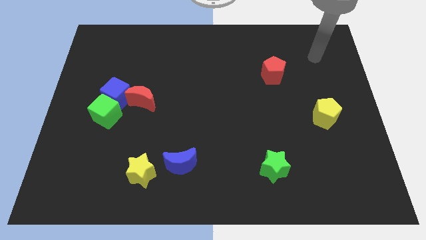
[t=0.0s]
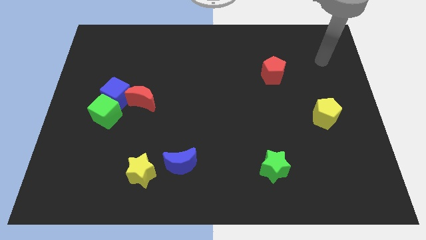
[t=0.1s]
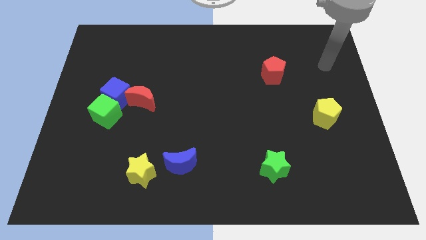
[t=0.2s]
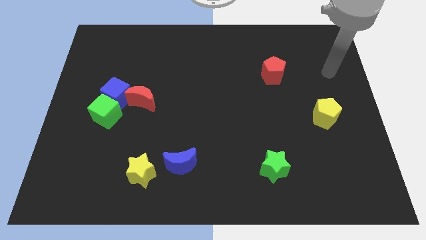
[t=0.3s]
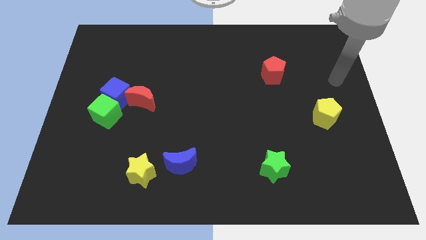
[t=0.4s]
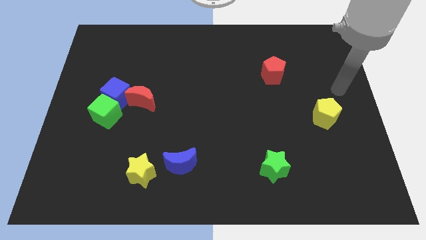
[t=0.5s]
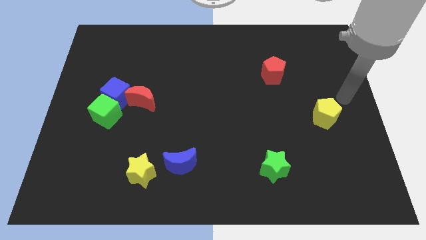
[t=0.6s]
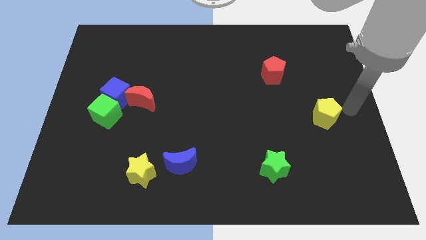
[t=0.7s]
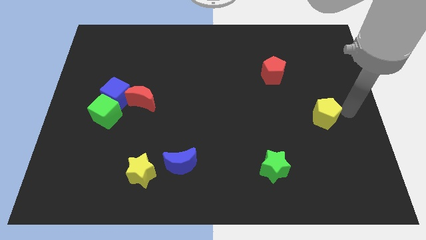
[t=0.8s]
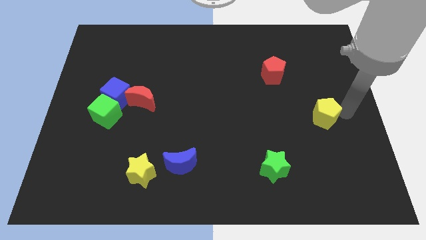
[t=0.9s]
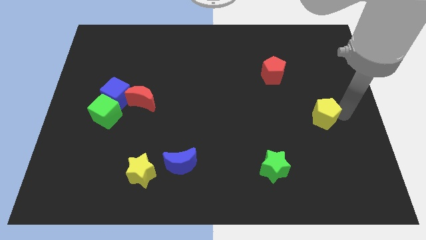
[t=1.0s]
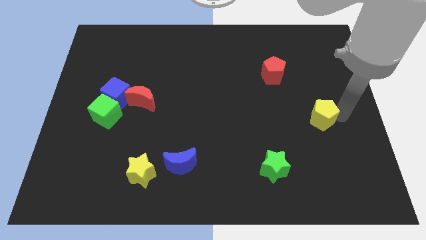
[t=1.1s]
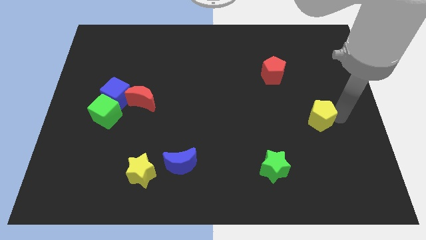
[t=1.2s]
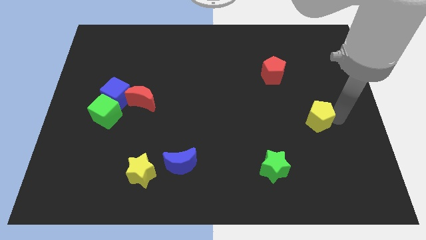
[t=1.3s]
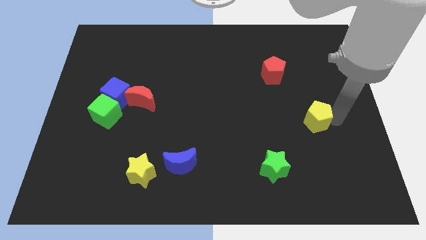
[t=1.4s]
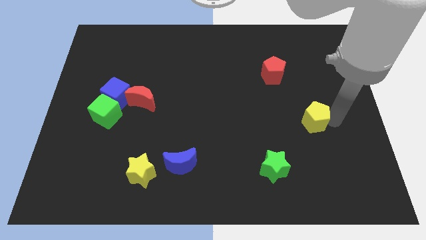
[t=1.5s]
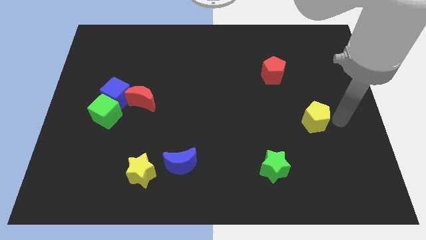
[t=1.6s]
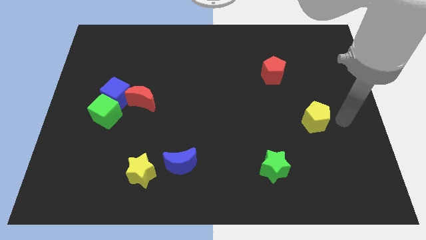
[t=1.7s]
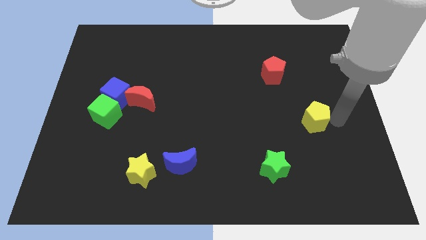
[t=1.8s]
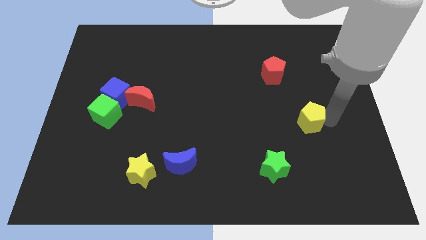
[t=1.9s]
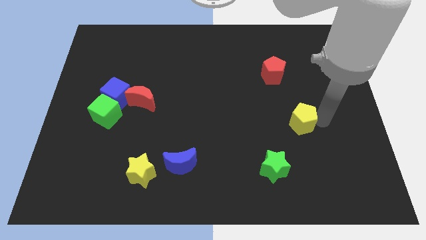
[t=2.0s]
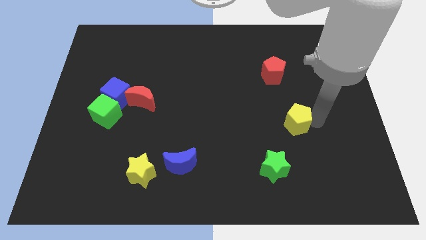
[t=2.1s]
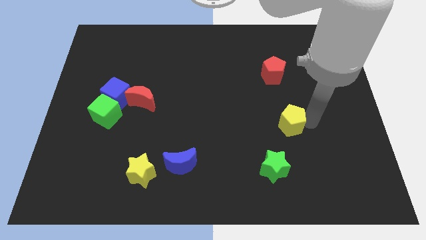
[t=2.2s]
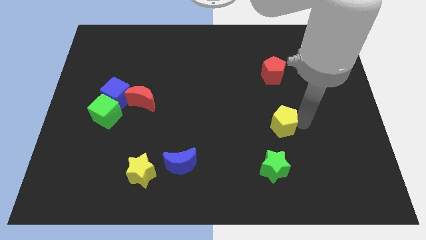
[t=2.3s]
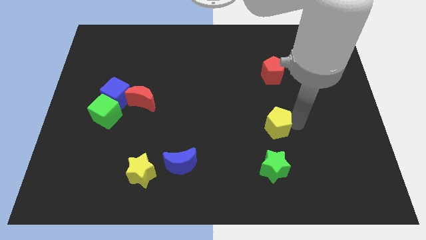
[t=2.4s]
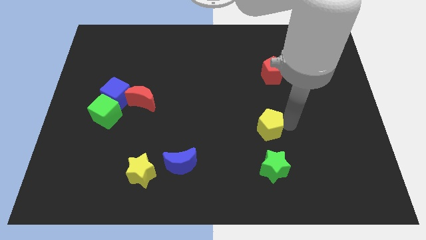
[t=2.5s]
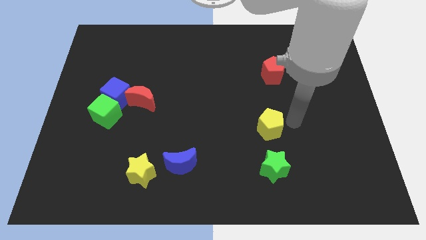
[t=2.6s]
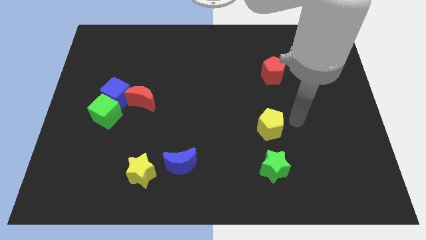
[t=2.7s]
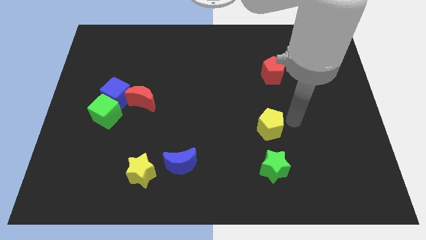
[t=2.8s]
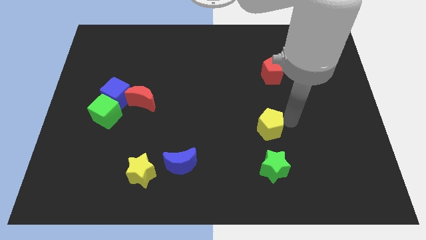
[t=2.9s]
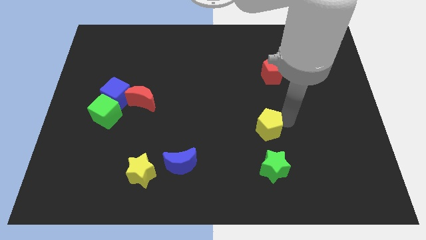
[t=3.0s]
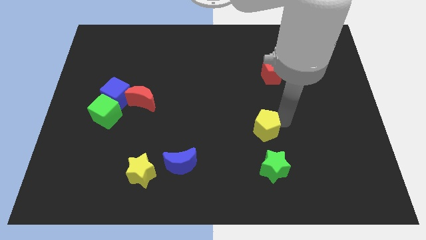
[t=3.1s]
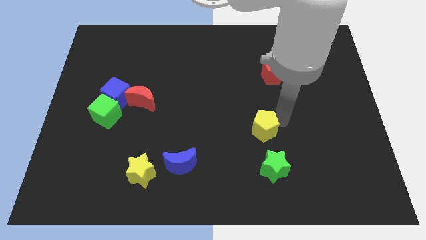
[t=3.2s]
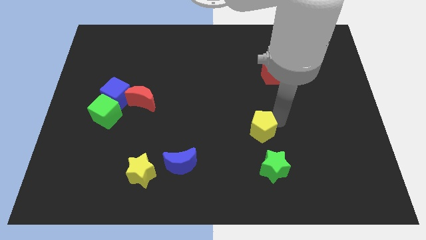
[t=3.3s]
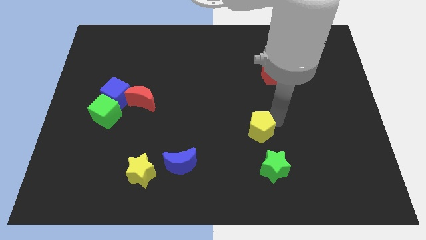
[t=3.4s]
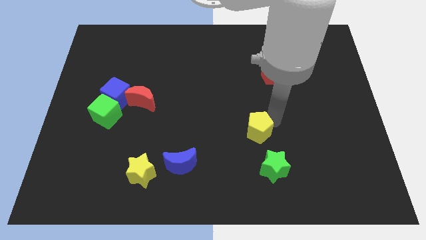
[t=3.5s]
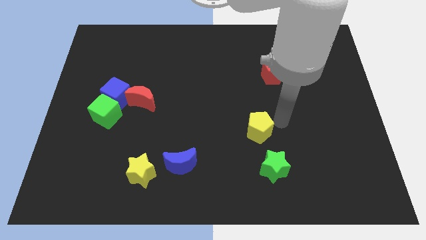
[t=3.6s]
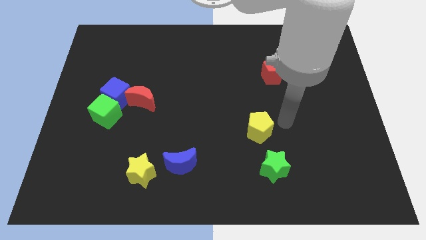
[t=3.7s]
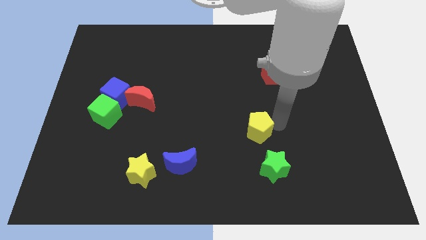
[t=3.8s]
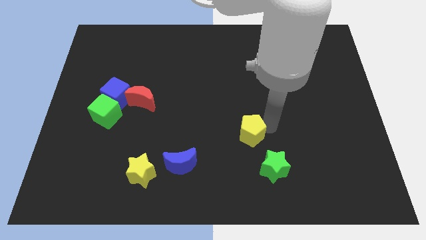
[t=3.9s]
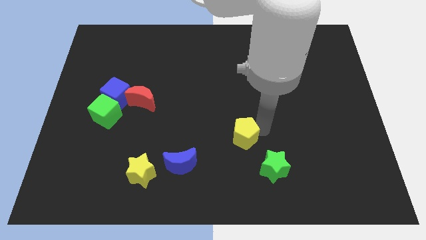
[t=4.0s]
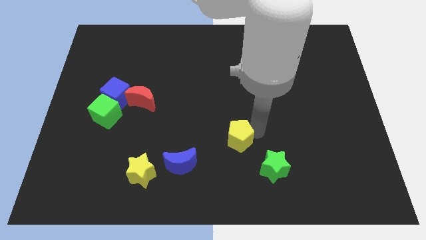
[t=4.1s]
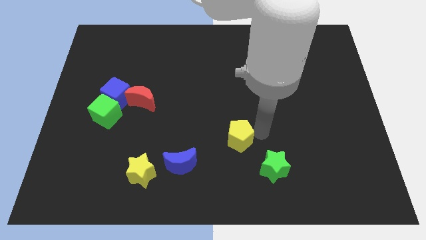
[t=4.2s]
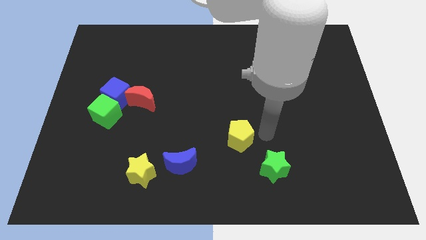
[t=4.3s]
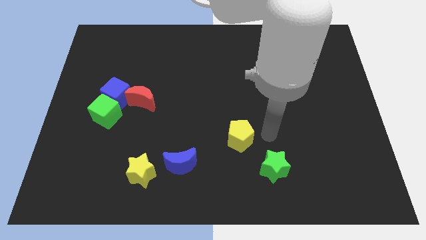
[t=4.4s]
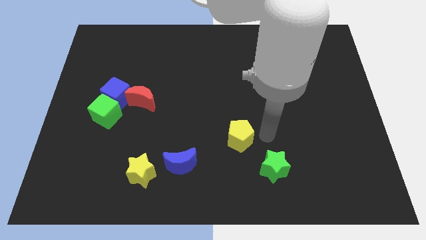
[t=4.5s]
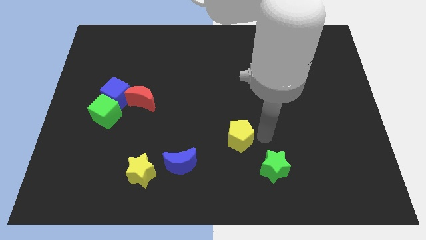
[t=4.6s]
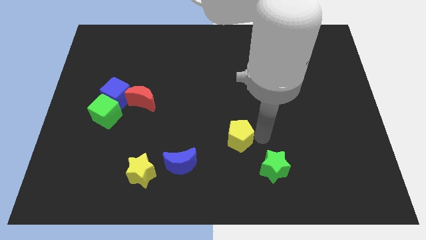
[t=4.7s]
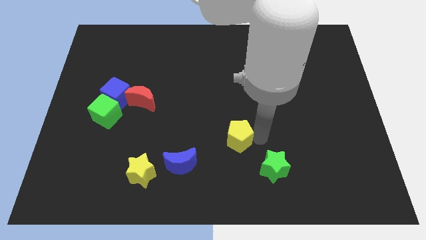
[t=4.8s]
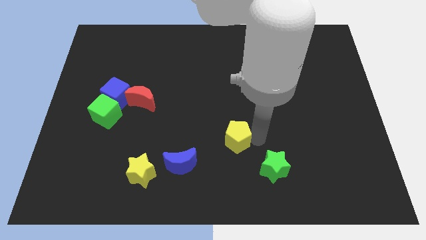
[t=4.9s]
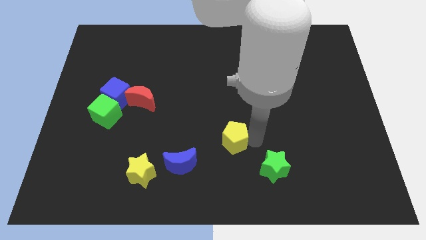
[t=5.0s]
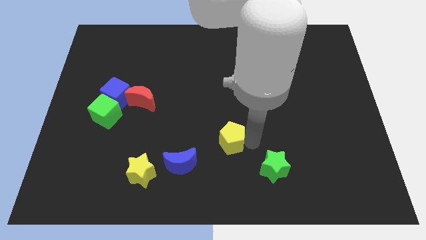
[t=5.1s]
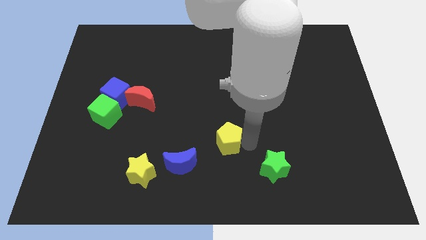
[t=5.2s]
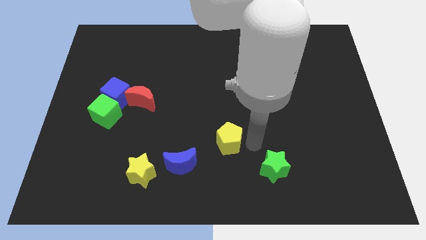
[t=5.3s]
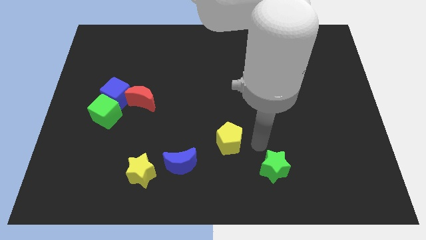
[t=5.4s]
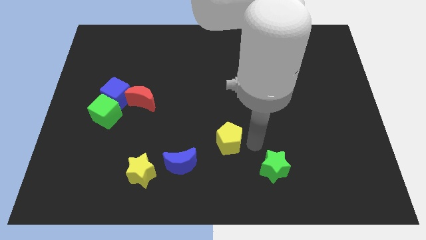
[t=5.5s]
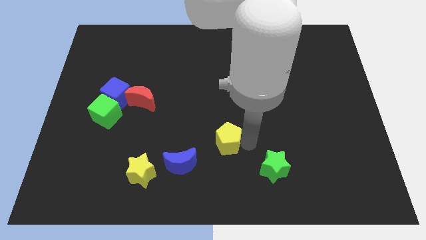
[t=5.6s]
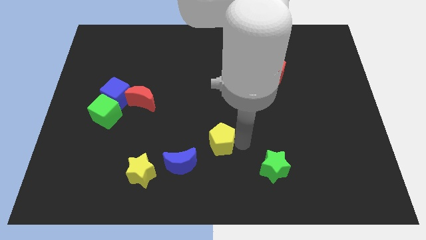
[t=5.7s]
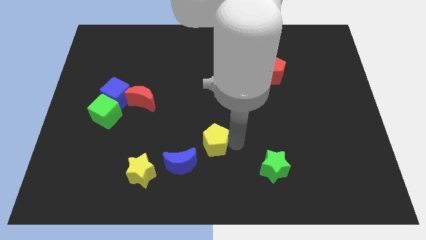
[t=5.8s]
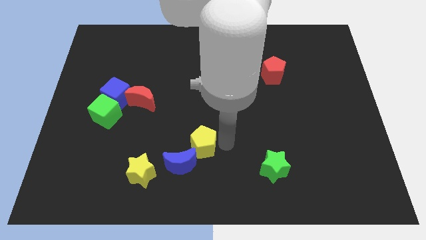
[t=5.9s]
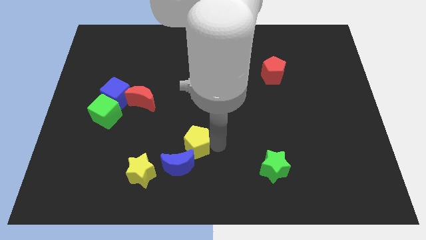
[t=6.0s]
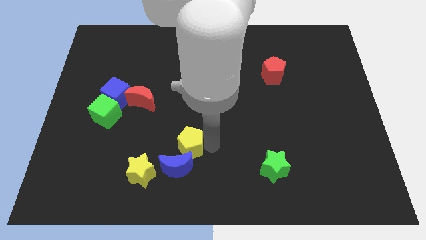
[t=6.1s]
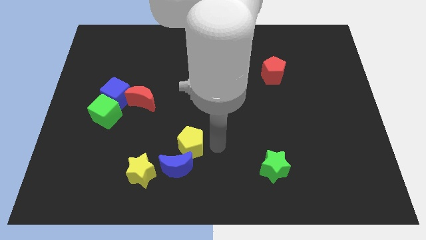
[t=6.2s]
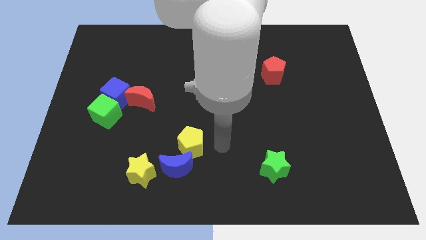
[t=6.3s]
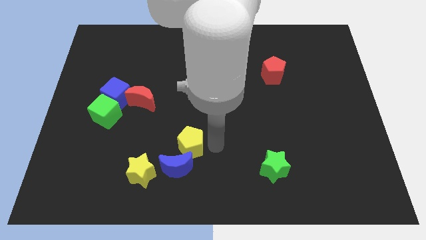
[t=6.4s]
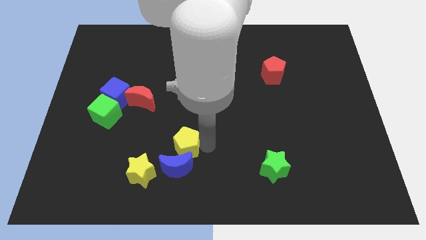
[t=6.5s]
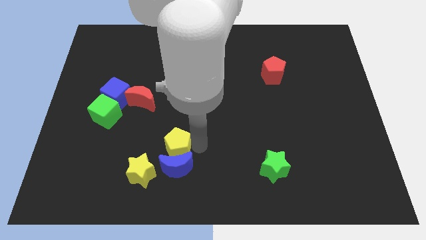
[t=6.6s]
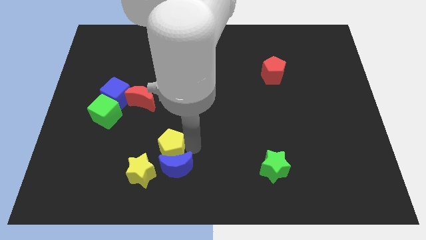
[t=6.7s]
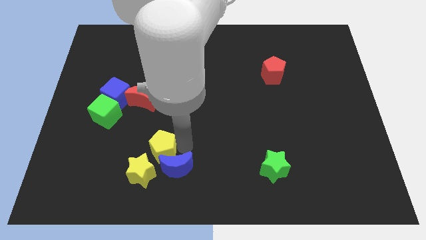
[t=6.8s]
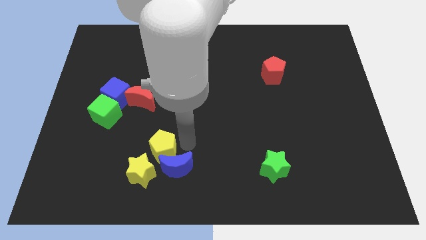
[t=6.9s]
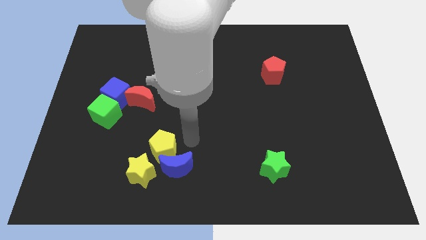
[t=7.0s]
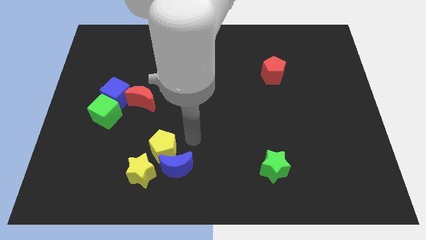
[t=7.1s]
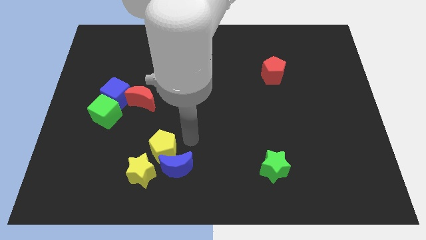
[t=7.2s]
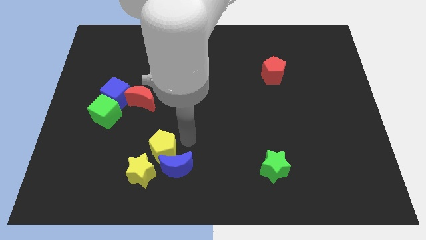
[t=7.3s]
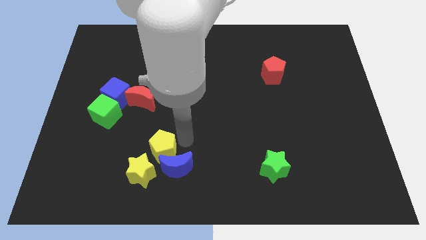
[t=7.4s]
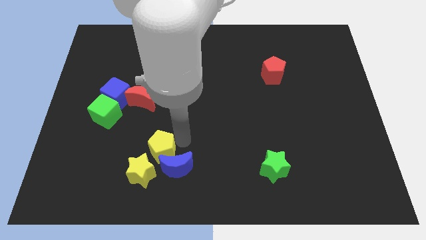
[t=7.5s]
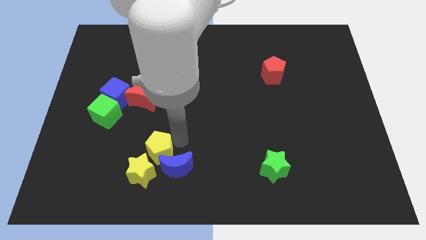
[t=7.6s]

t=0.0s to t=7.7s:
move the yellow pentagon close to the yellow star

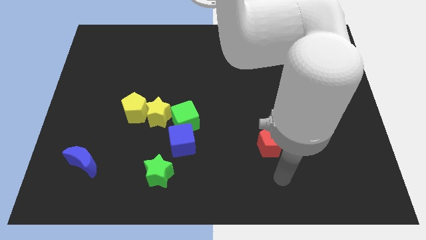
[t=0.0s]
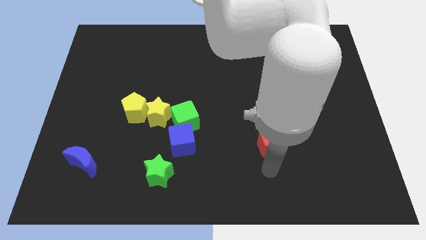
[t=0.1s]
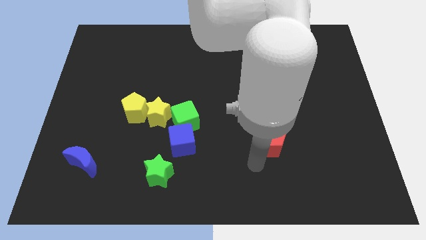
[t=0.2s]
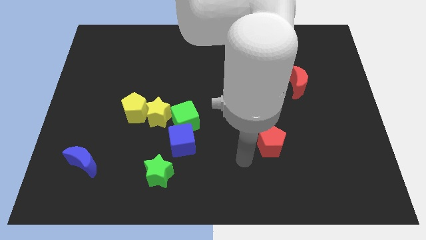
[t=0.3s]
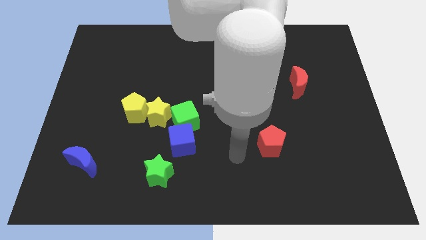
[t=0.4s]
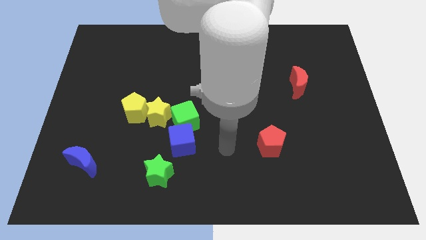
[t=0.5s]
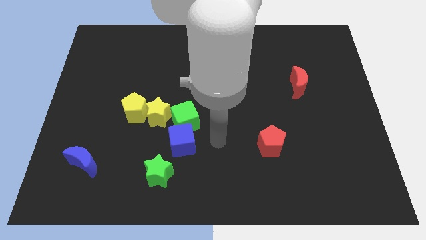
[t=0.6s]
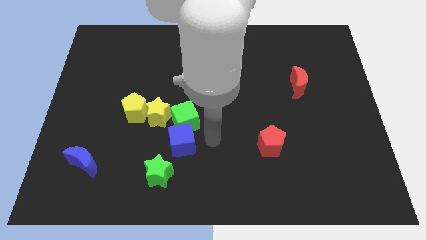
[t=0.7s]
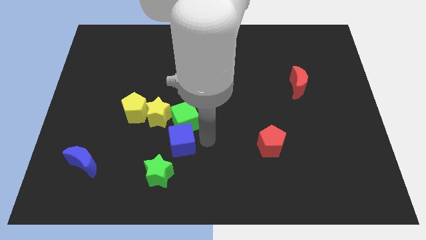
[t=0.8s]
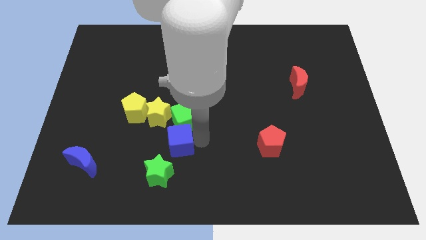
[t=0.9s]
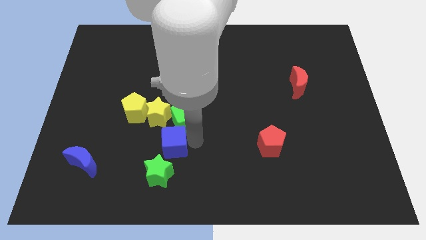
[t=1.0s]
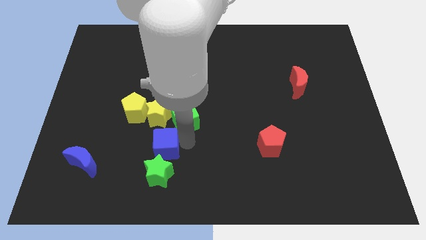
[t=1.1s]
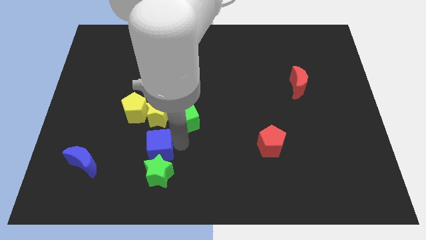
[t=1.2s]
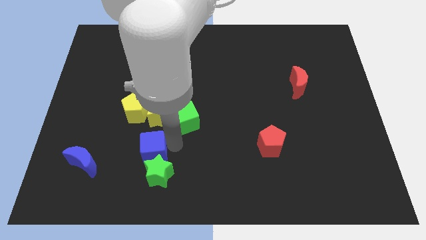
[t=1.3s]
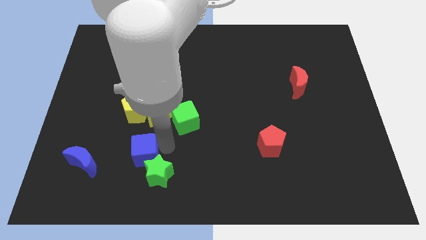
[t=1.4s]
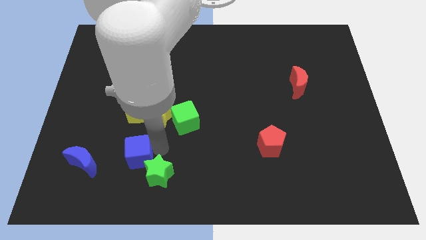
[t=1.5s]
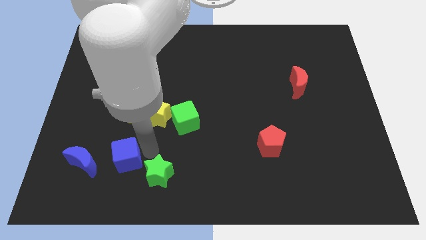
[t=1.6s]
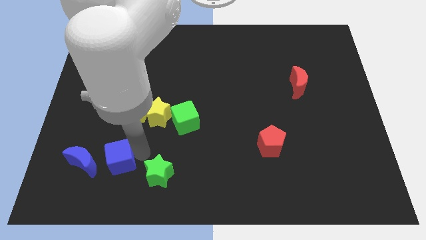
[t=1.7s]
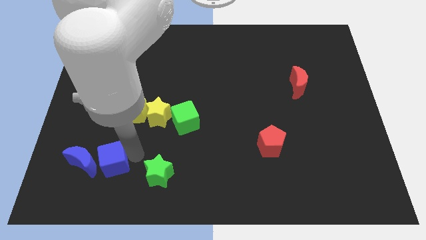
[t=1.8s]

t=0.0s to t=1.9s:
push the blue cube towards the blue moon
